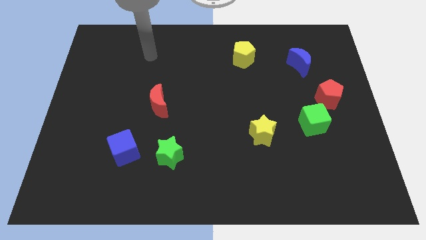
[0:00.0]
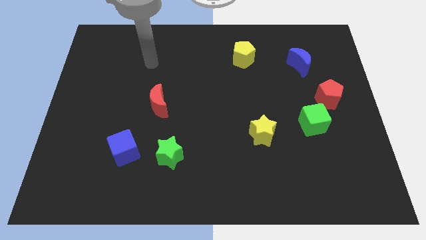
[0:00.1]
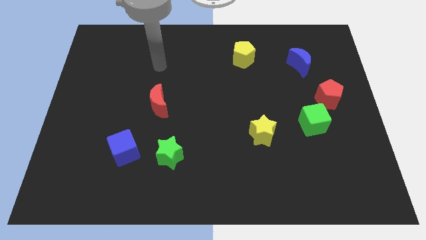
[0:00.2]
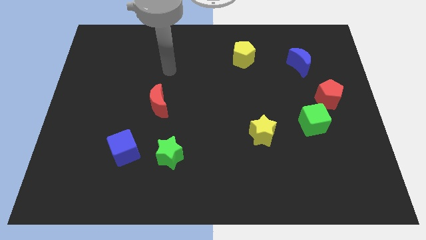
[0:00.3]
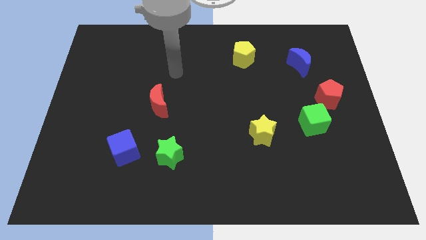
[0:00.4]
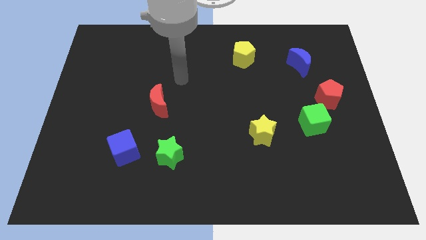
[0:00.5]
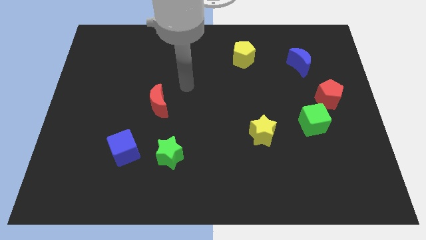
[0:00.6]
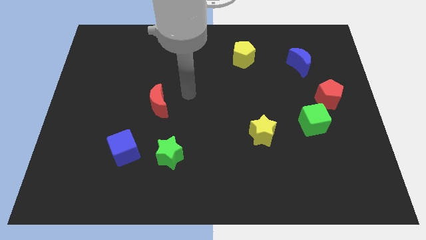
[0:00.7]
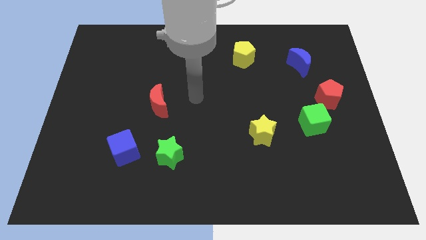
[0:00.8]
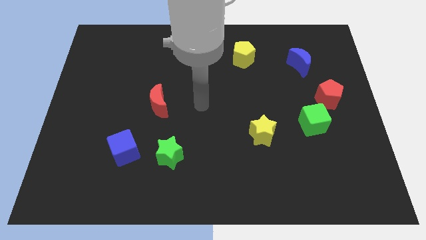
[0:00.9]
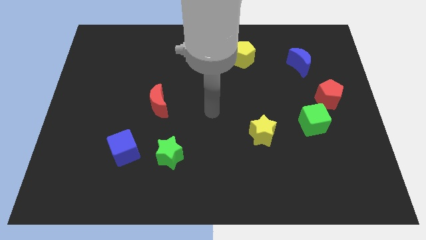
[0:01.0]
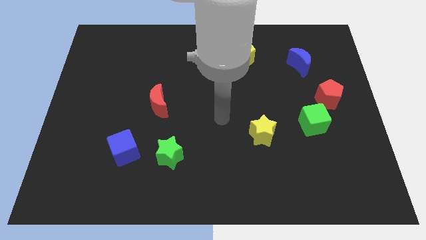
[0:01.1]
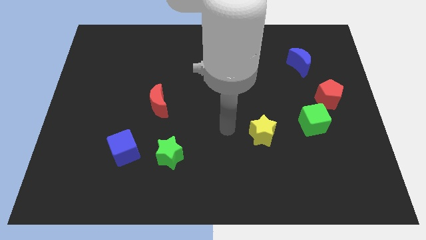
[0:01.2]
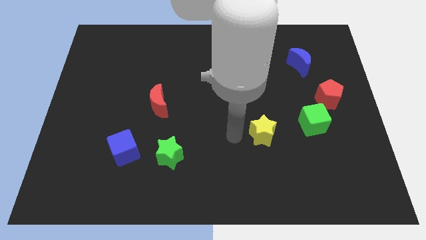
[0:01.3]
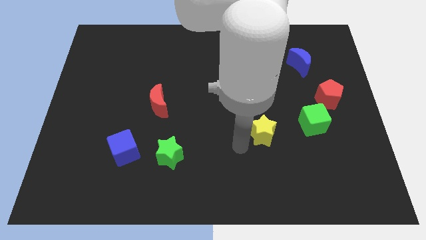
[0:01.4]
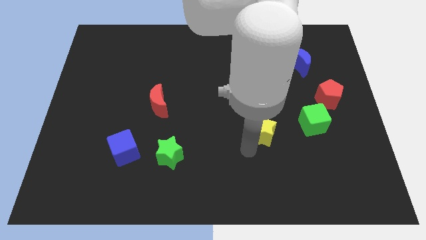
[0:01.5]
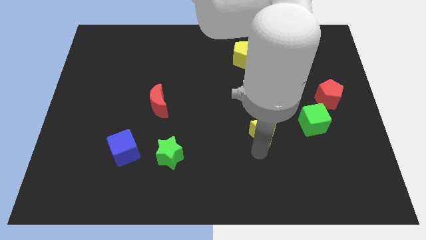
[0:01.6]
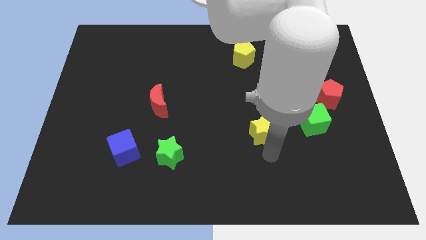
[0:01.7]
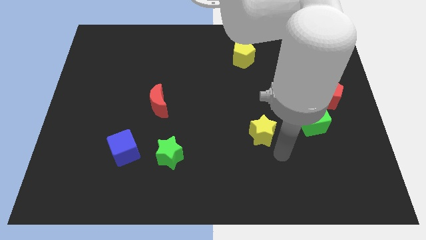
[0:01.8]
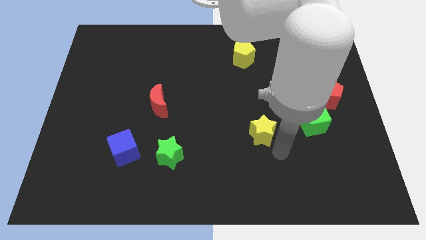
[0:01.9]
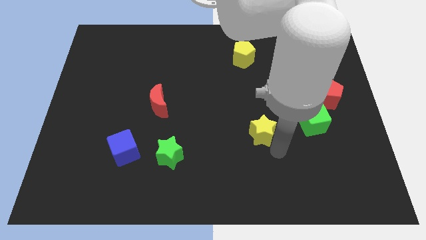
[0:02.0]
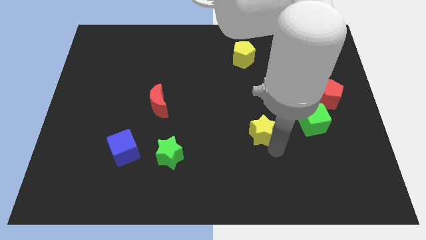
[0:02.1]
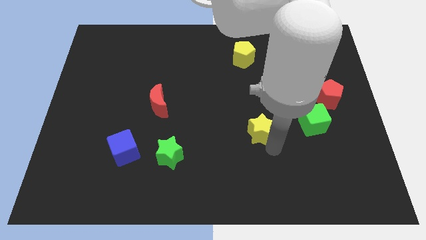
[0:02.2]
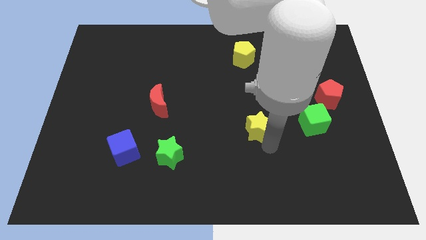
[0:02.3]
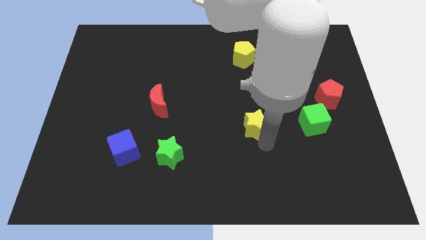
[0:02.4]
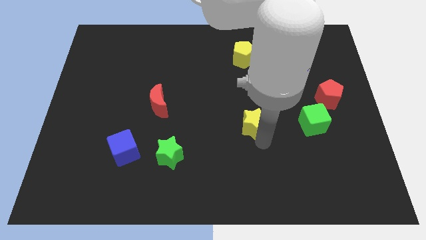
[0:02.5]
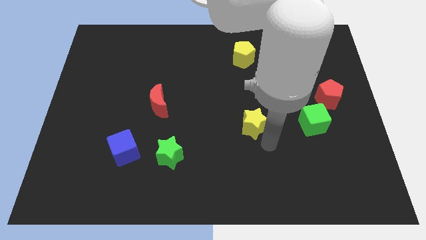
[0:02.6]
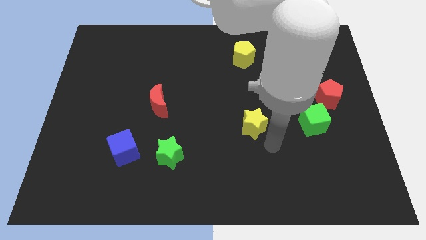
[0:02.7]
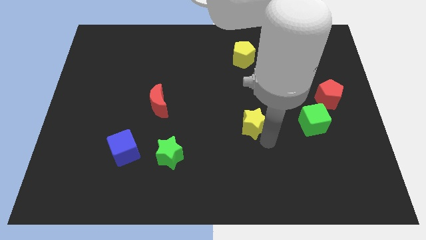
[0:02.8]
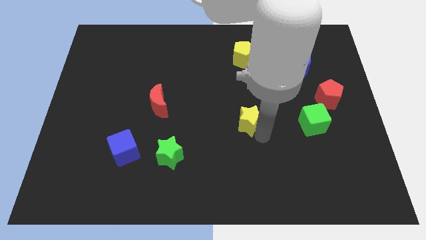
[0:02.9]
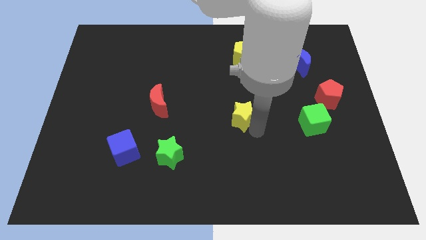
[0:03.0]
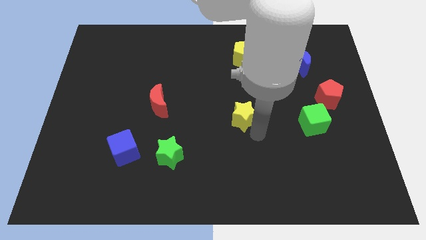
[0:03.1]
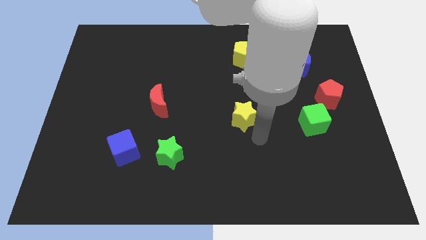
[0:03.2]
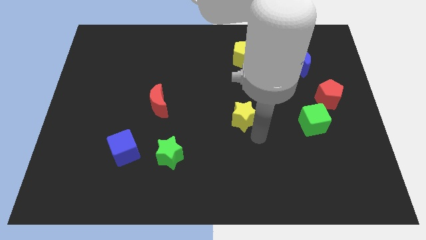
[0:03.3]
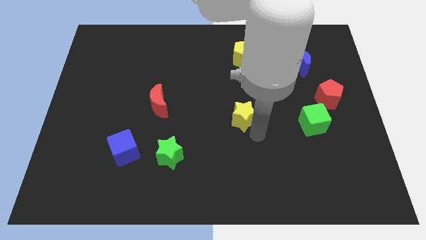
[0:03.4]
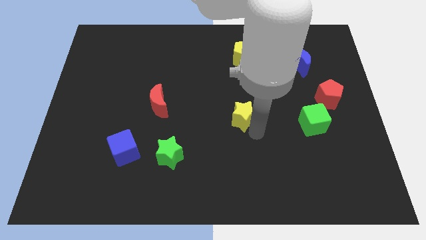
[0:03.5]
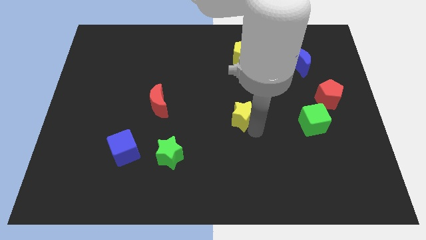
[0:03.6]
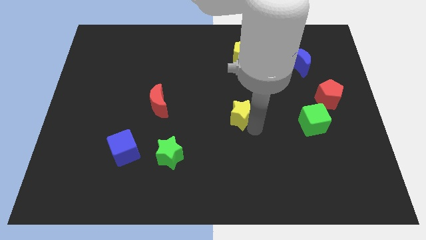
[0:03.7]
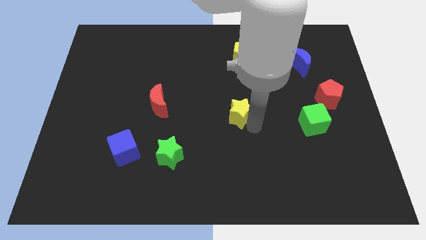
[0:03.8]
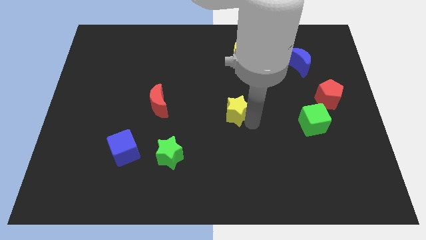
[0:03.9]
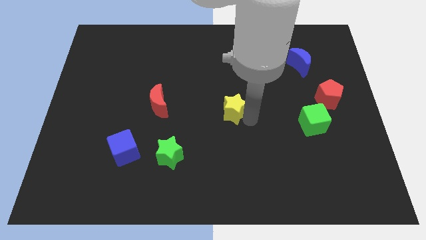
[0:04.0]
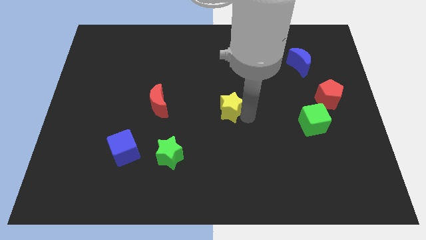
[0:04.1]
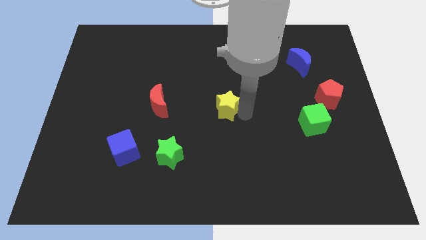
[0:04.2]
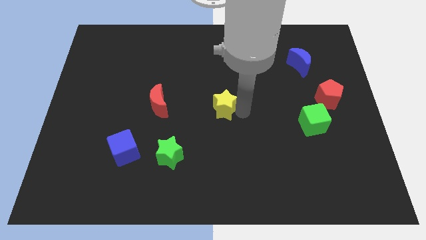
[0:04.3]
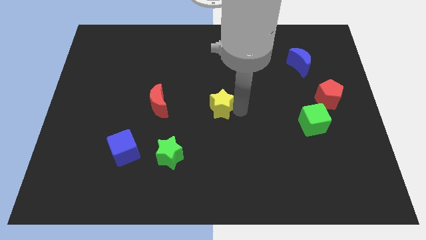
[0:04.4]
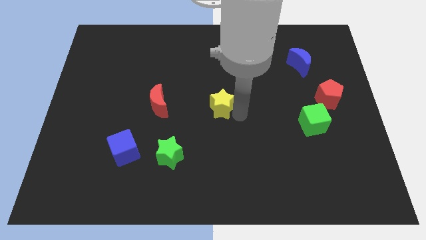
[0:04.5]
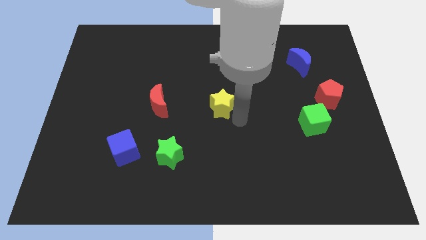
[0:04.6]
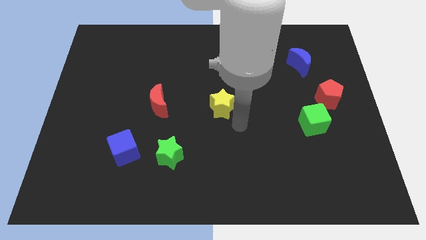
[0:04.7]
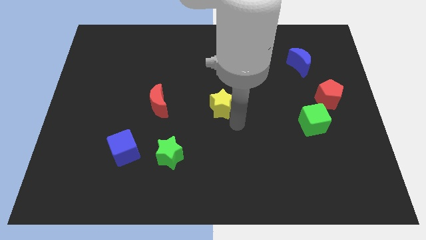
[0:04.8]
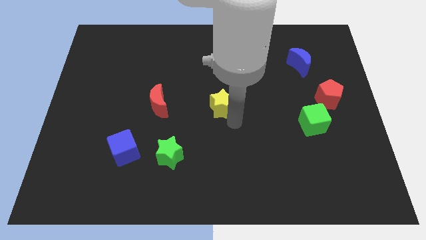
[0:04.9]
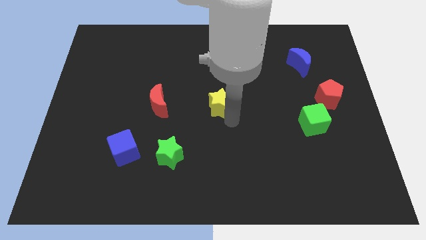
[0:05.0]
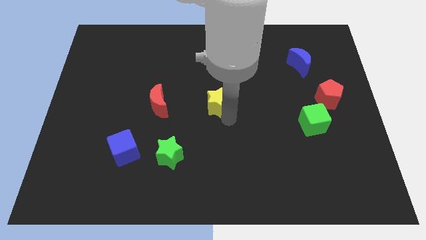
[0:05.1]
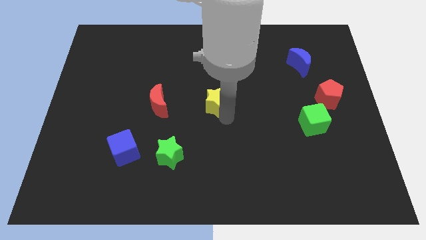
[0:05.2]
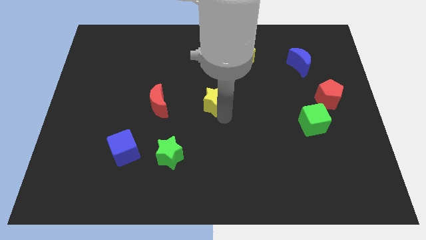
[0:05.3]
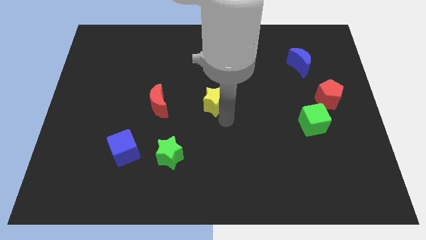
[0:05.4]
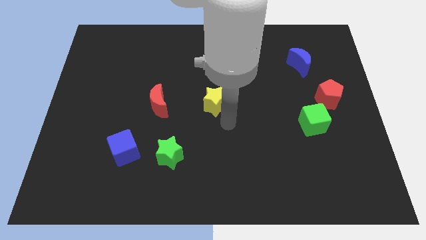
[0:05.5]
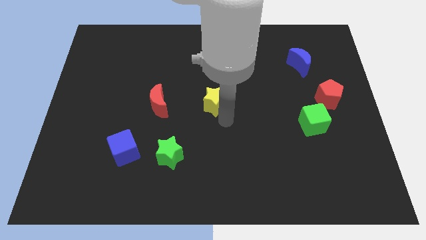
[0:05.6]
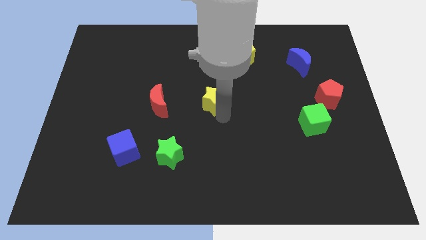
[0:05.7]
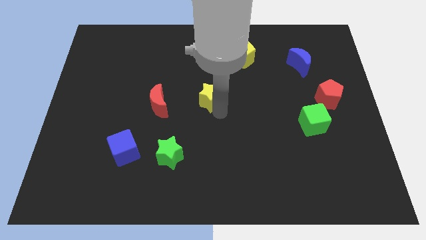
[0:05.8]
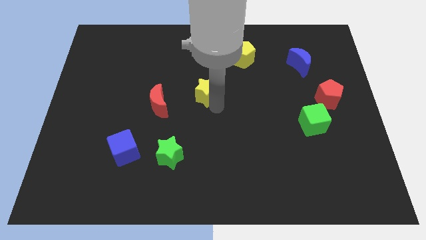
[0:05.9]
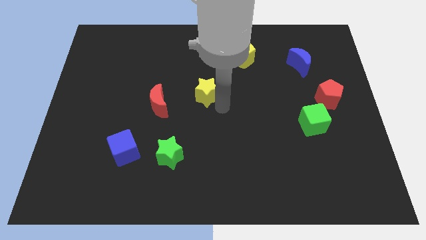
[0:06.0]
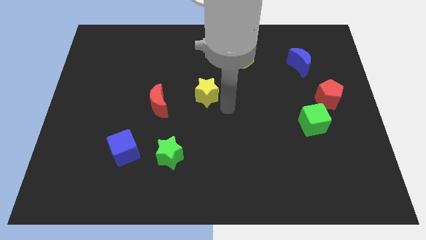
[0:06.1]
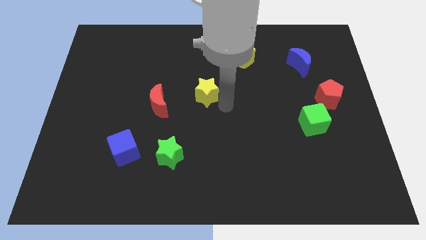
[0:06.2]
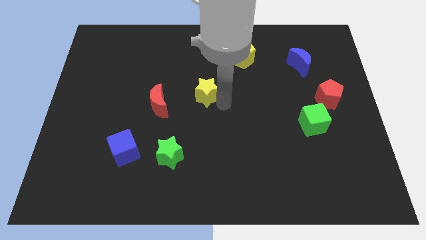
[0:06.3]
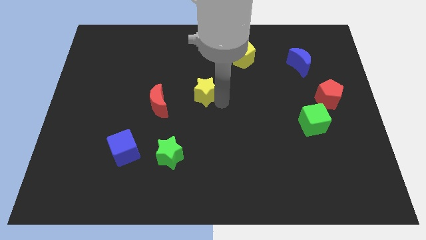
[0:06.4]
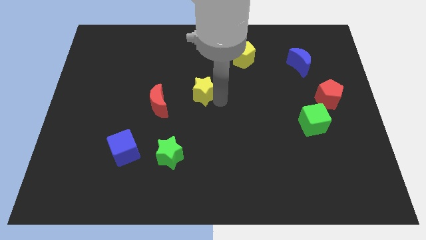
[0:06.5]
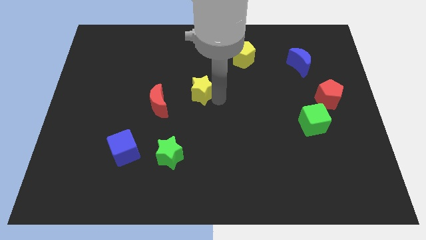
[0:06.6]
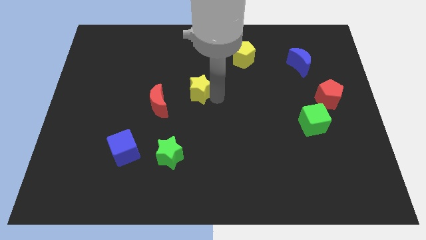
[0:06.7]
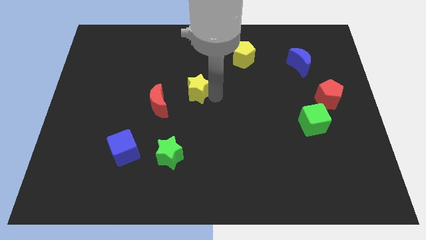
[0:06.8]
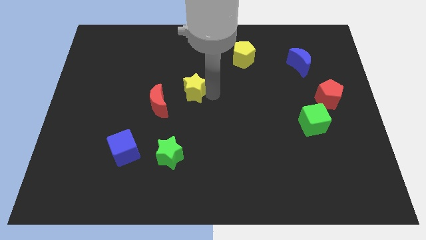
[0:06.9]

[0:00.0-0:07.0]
slide the yellow star upwards and left

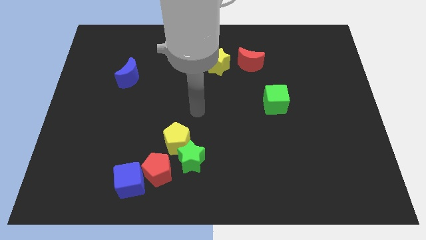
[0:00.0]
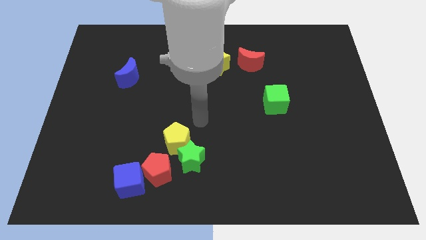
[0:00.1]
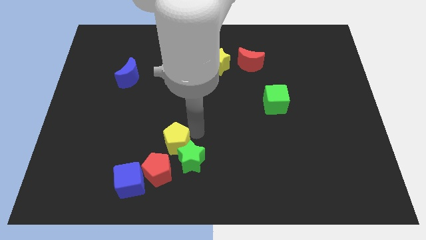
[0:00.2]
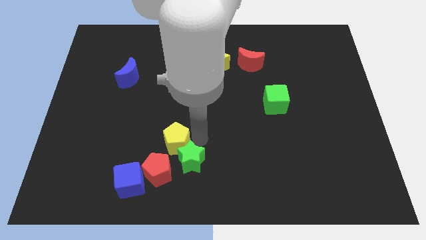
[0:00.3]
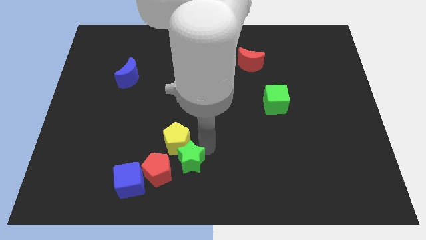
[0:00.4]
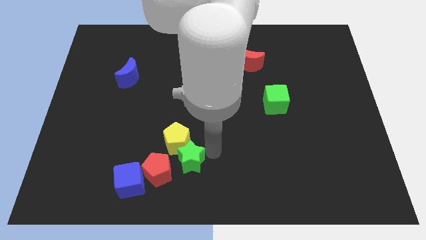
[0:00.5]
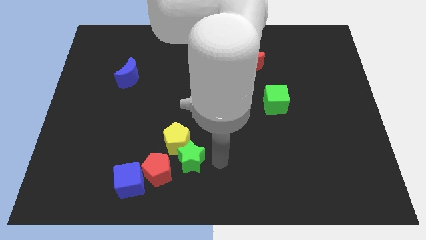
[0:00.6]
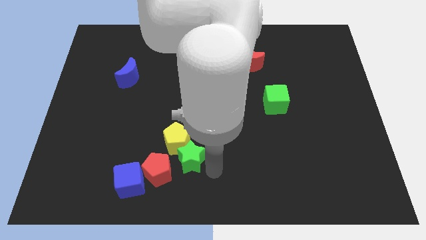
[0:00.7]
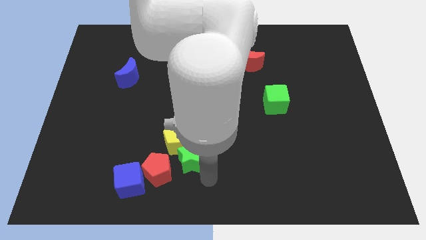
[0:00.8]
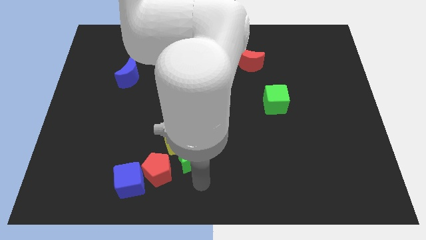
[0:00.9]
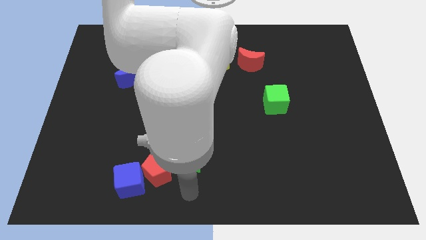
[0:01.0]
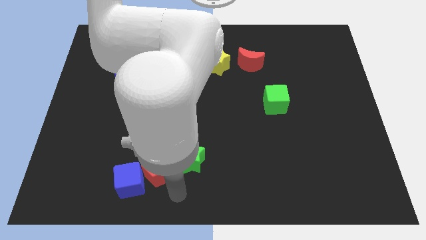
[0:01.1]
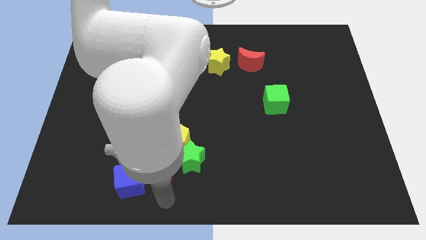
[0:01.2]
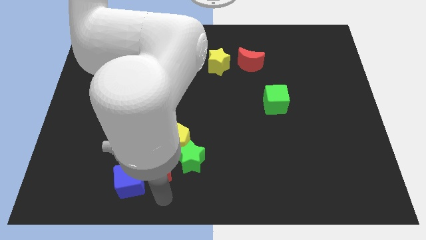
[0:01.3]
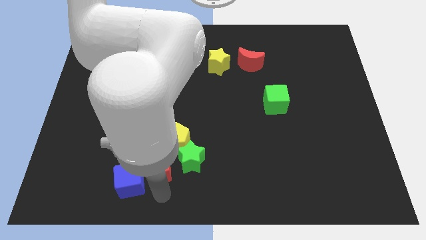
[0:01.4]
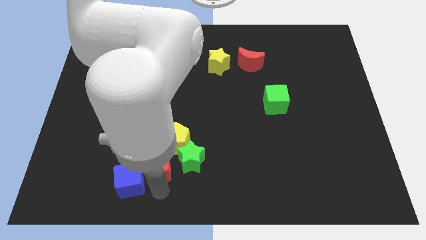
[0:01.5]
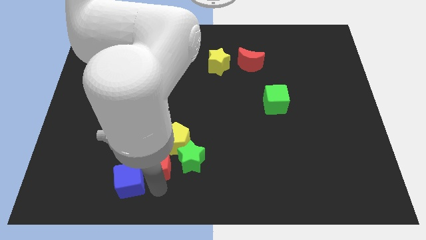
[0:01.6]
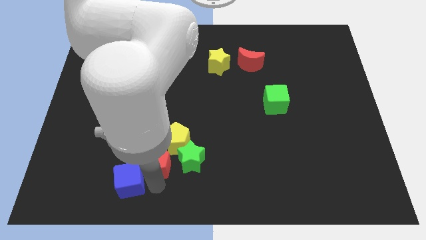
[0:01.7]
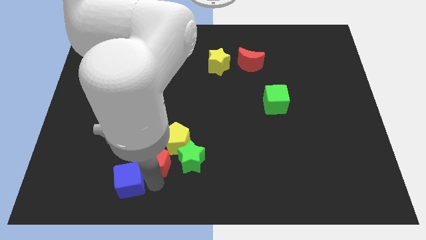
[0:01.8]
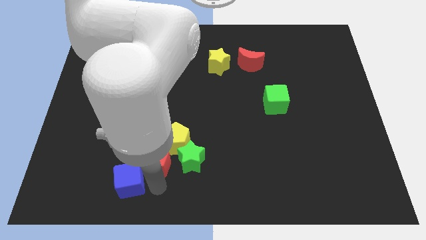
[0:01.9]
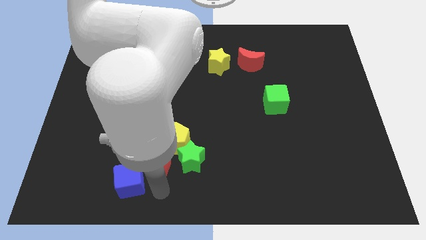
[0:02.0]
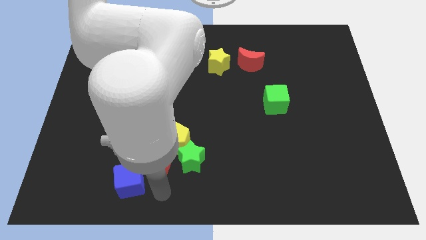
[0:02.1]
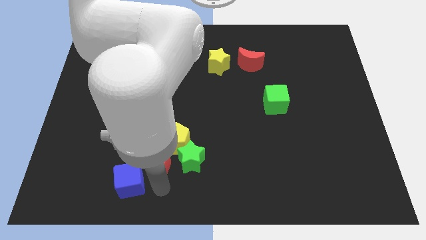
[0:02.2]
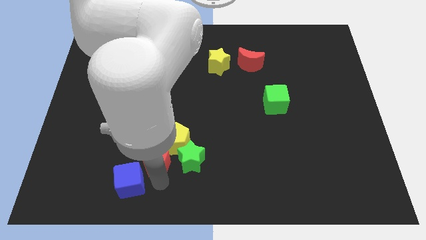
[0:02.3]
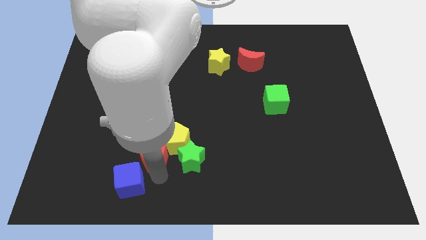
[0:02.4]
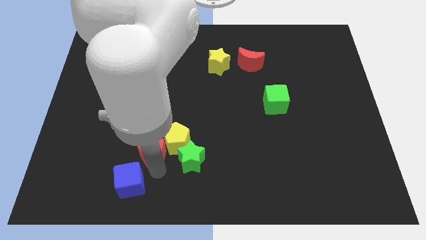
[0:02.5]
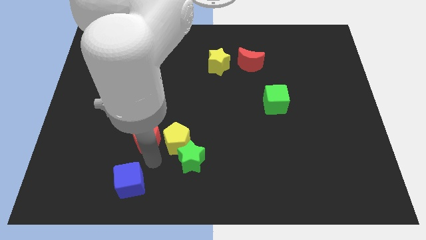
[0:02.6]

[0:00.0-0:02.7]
move the red pentagon up a bit
